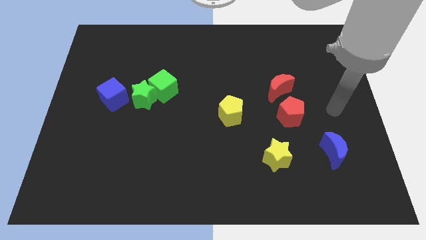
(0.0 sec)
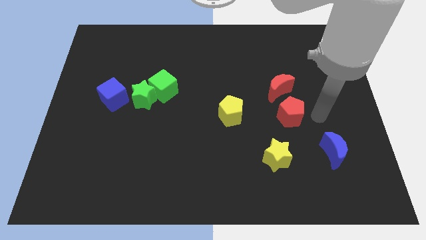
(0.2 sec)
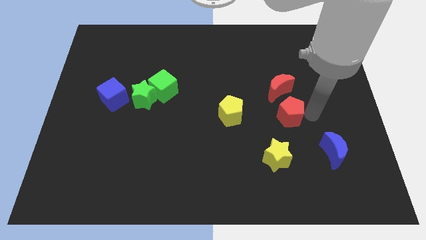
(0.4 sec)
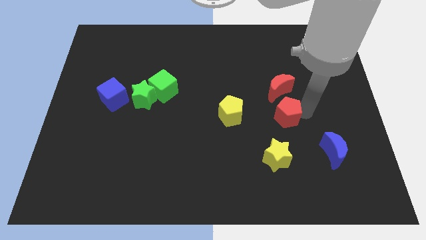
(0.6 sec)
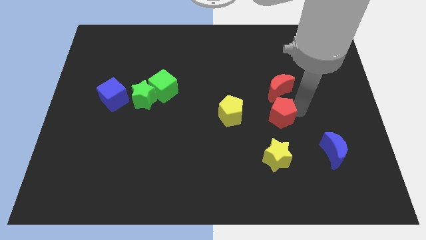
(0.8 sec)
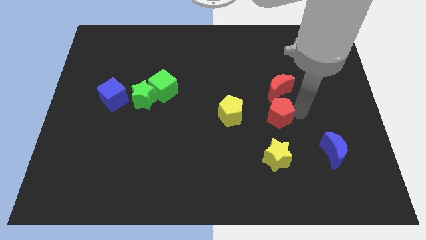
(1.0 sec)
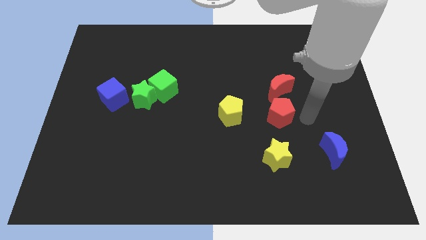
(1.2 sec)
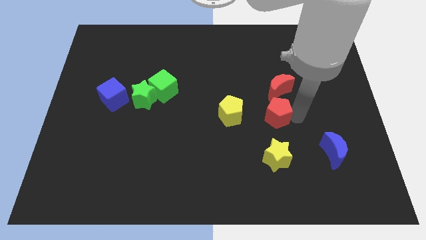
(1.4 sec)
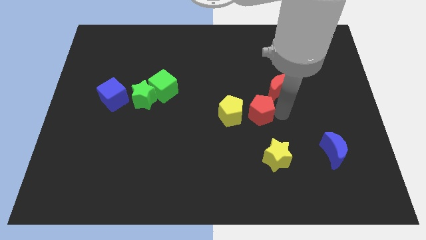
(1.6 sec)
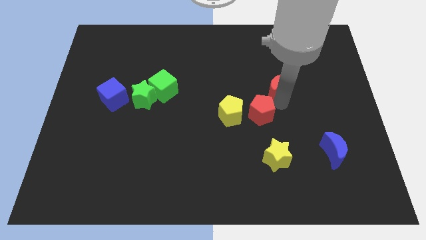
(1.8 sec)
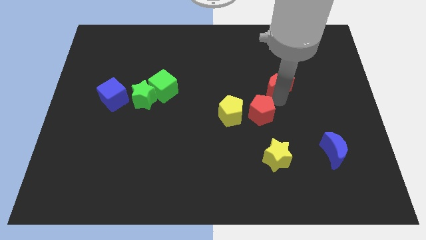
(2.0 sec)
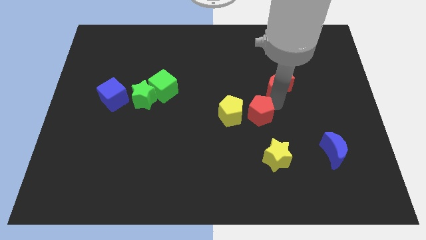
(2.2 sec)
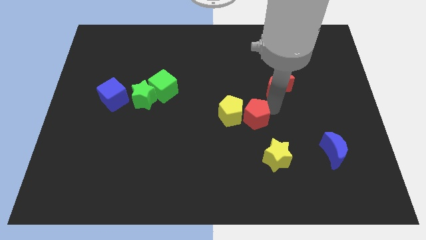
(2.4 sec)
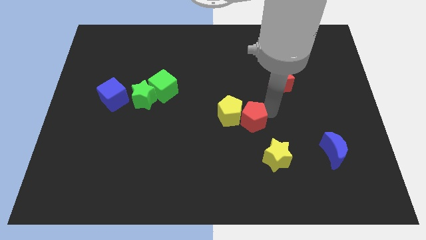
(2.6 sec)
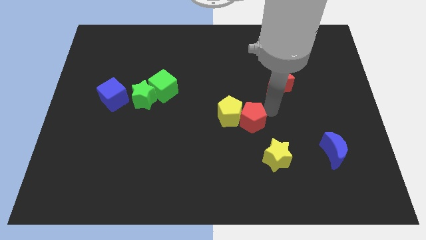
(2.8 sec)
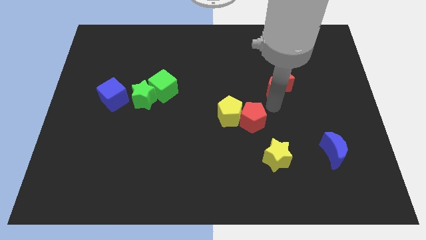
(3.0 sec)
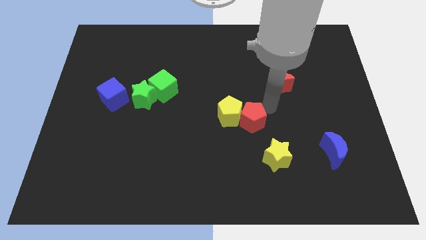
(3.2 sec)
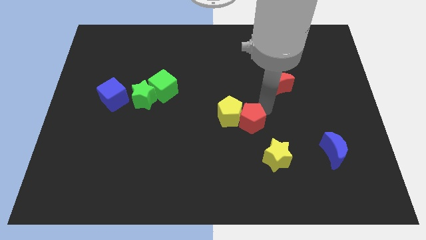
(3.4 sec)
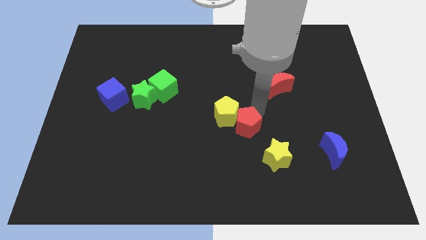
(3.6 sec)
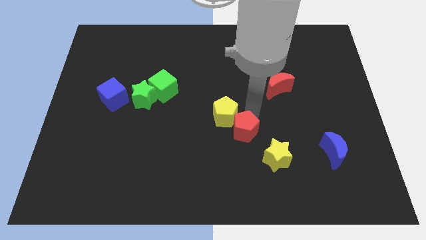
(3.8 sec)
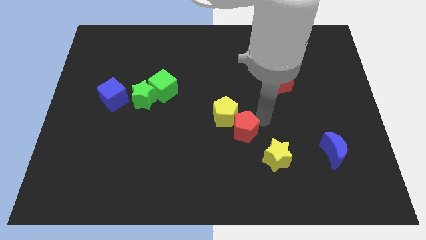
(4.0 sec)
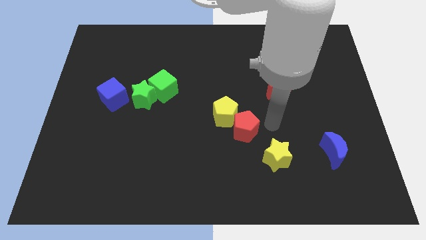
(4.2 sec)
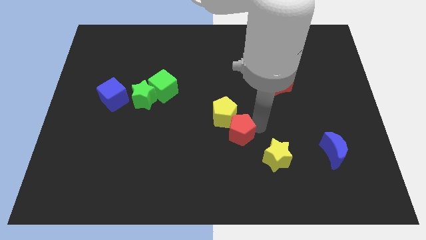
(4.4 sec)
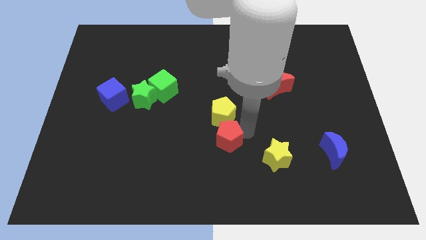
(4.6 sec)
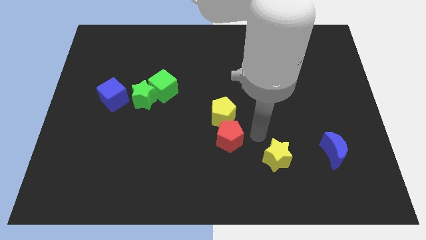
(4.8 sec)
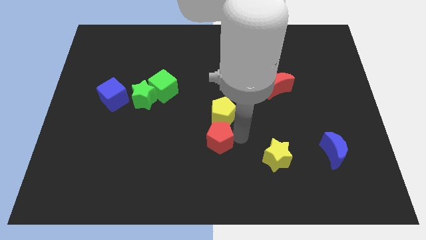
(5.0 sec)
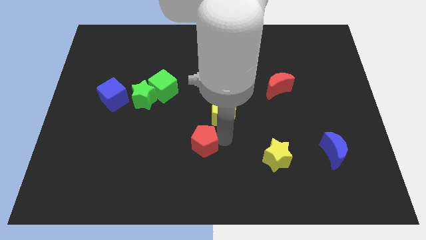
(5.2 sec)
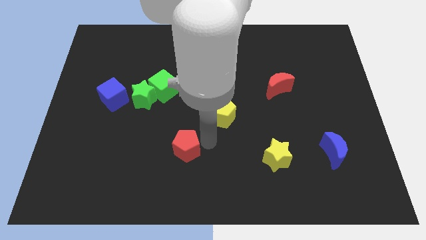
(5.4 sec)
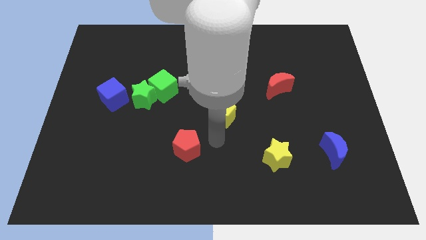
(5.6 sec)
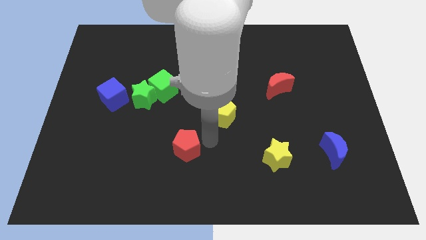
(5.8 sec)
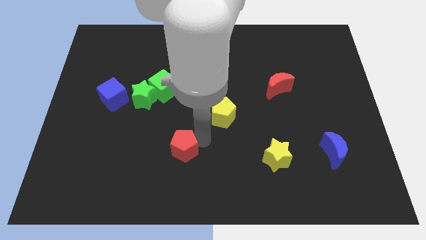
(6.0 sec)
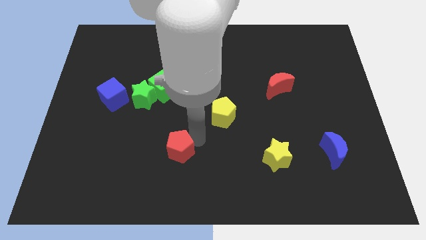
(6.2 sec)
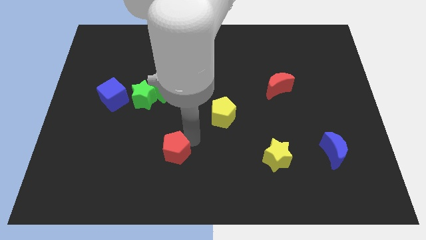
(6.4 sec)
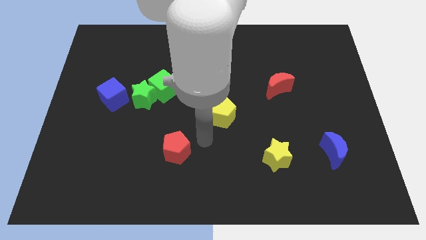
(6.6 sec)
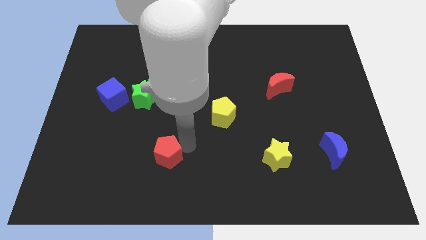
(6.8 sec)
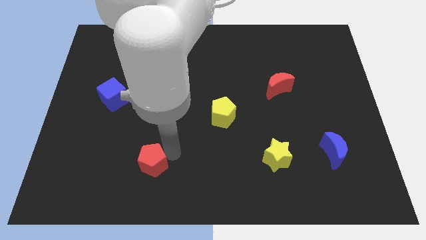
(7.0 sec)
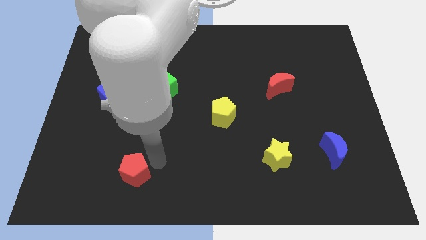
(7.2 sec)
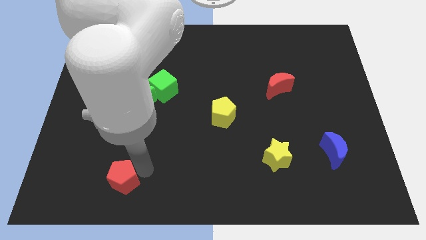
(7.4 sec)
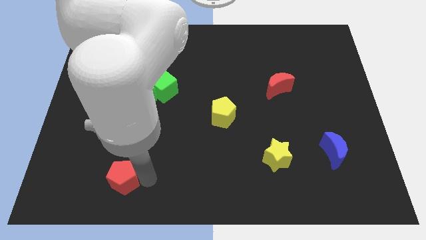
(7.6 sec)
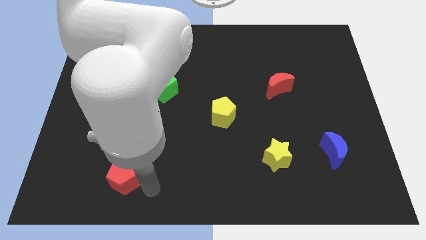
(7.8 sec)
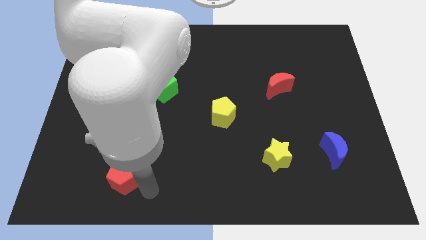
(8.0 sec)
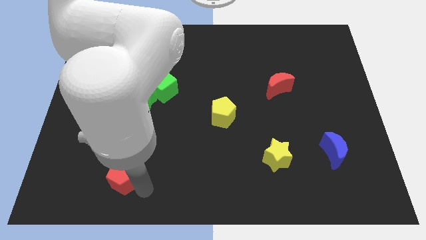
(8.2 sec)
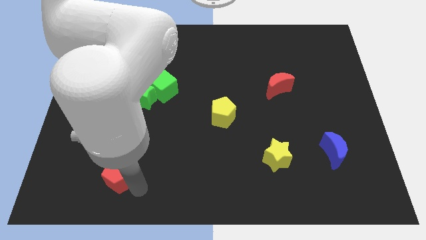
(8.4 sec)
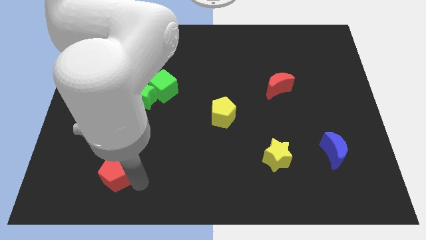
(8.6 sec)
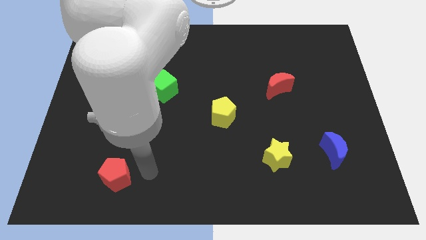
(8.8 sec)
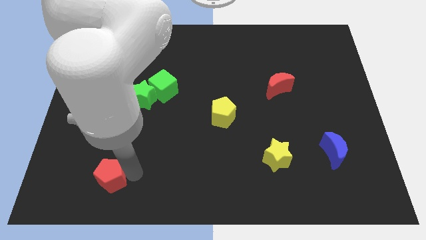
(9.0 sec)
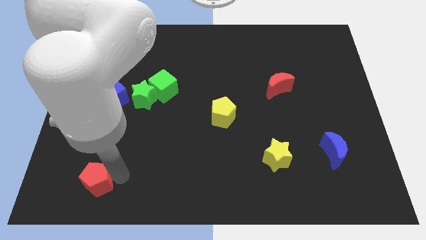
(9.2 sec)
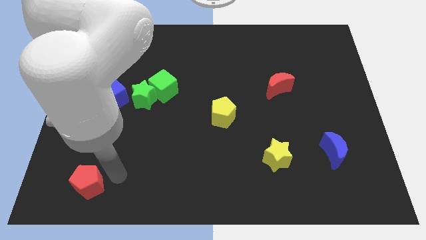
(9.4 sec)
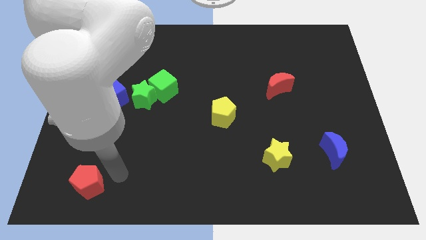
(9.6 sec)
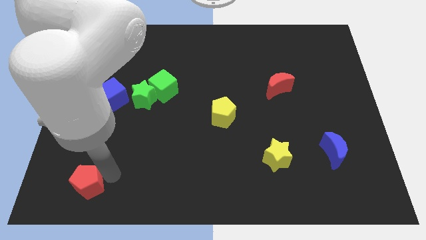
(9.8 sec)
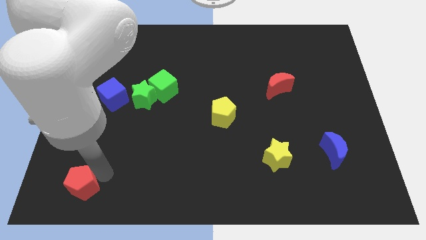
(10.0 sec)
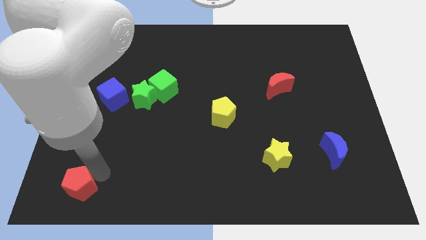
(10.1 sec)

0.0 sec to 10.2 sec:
move the red pentagon to the bottom left corner

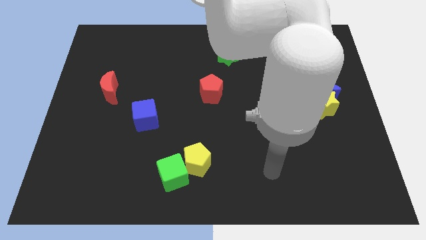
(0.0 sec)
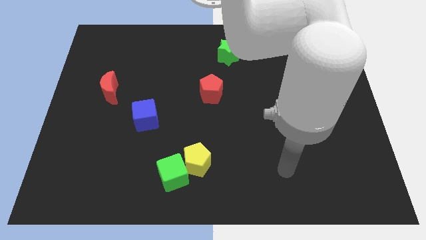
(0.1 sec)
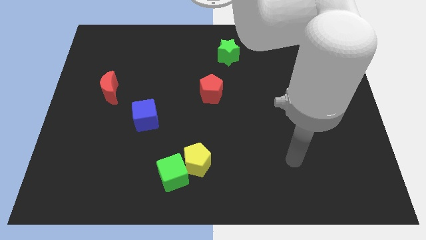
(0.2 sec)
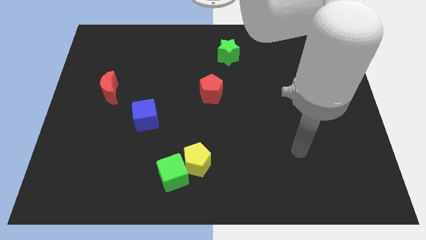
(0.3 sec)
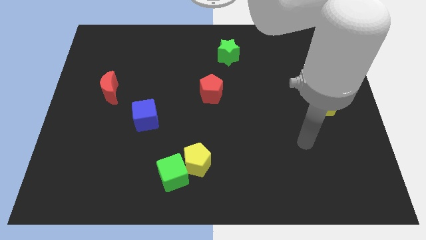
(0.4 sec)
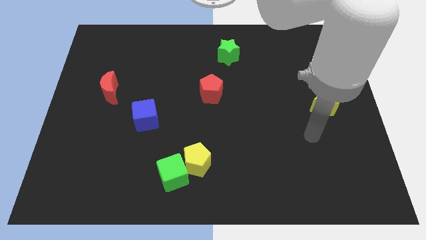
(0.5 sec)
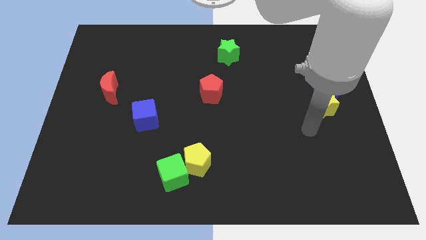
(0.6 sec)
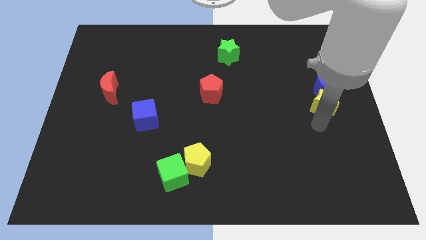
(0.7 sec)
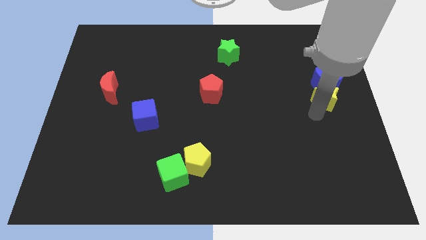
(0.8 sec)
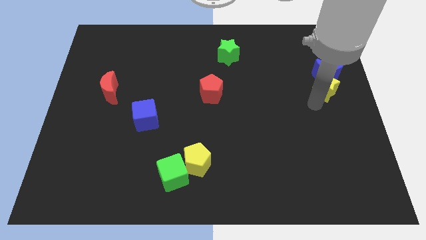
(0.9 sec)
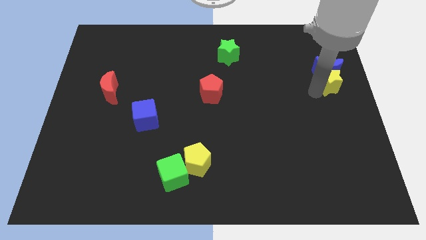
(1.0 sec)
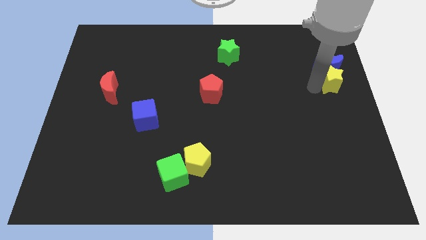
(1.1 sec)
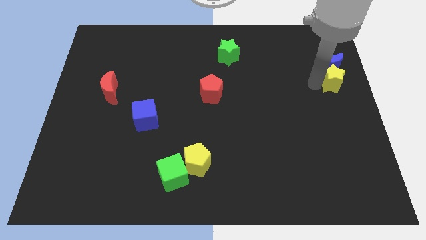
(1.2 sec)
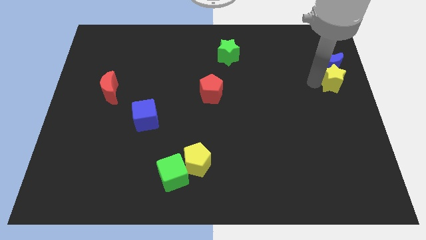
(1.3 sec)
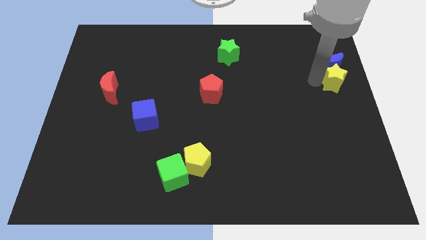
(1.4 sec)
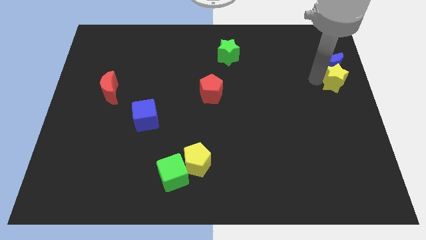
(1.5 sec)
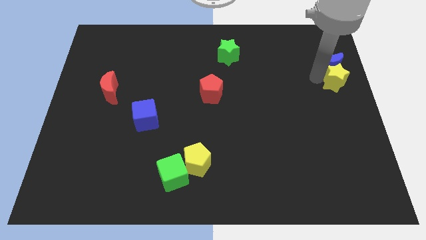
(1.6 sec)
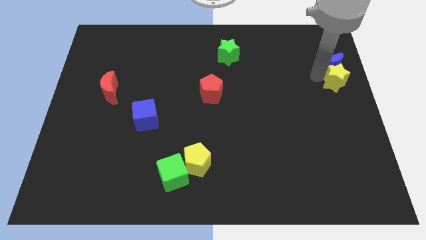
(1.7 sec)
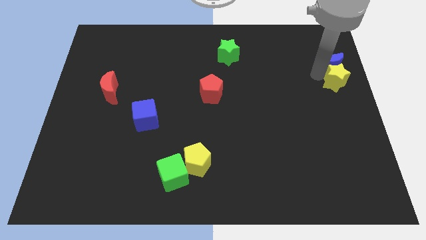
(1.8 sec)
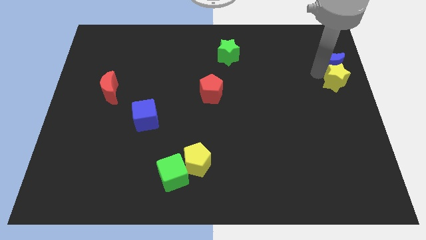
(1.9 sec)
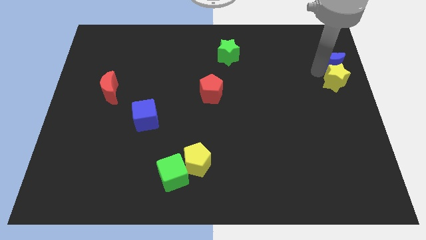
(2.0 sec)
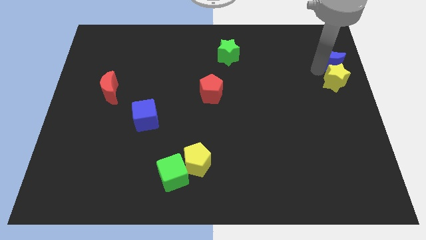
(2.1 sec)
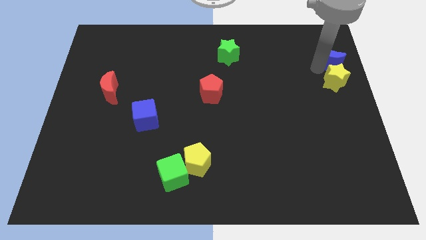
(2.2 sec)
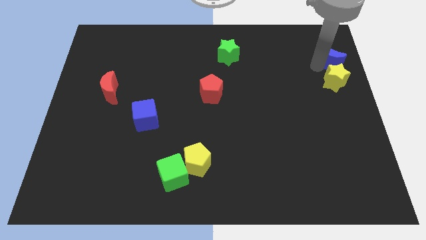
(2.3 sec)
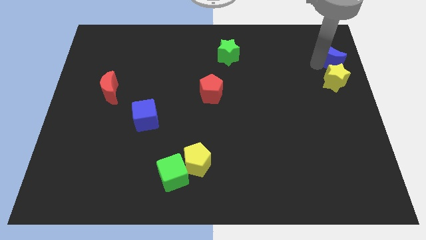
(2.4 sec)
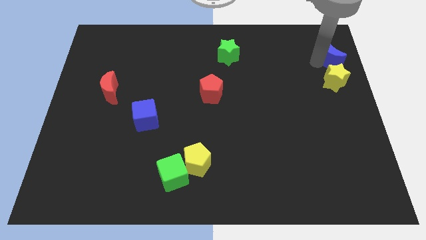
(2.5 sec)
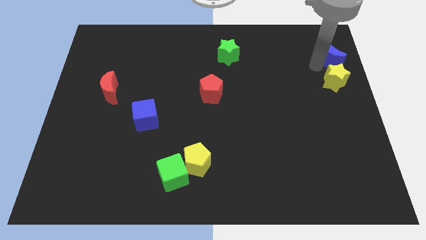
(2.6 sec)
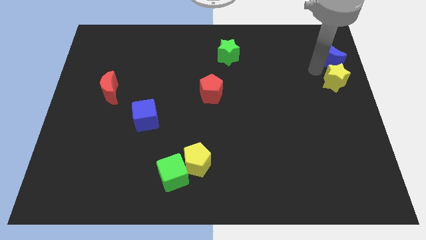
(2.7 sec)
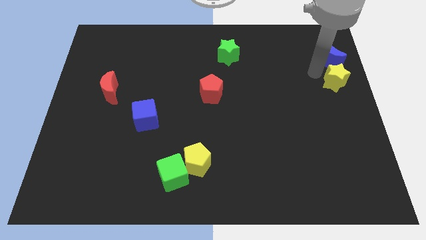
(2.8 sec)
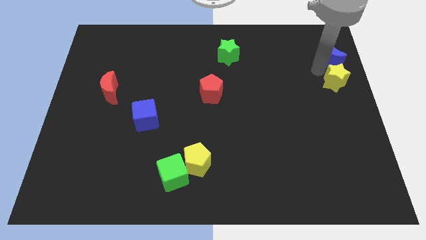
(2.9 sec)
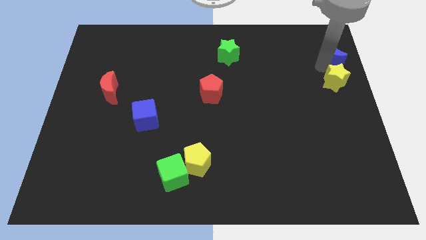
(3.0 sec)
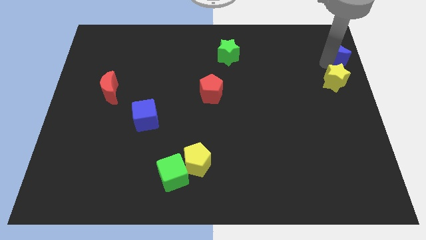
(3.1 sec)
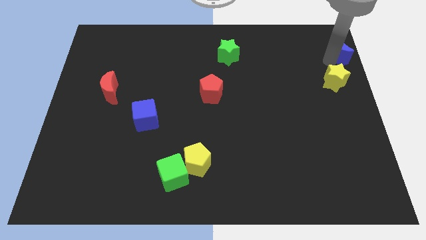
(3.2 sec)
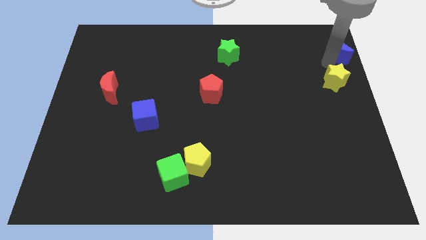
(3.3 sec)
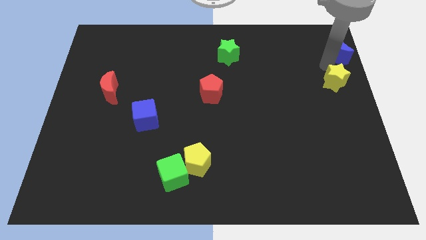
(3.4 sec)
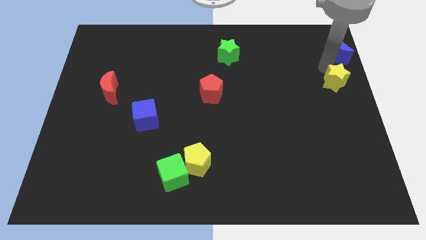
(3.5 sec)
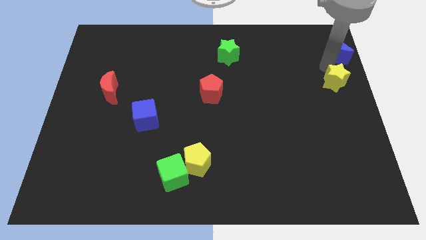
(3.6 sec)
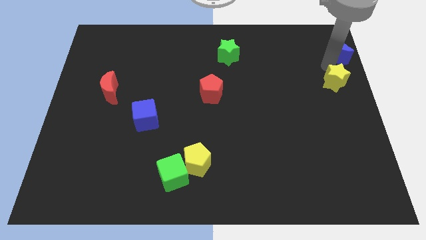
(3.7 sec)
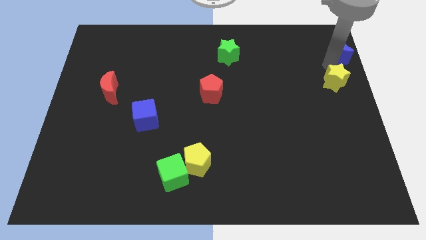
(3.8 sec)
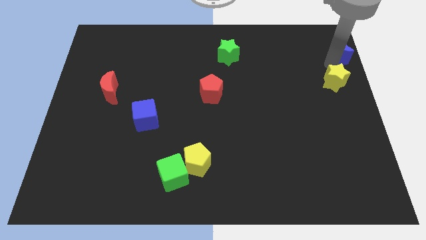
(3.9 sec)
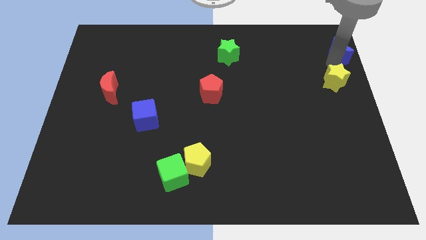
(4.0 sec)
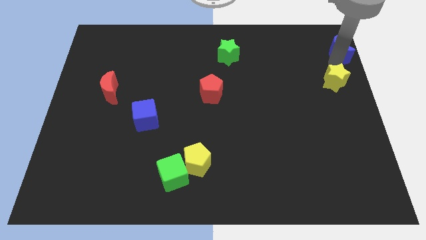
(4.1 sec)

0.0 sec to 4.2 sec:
push the blue moon to the top right corner
